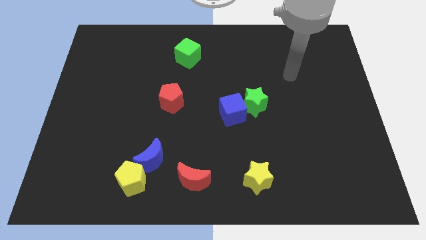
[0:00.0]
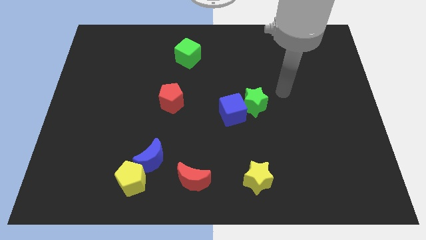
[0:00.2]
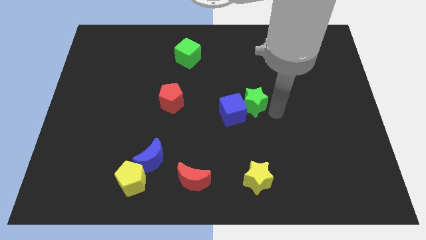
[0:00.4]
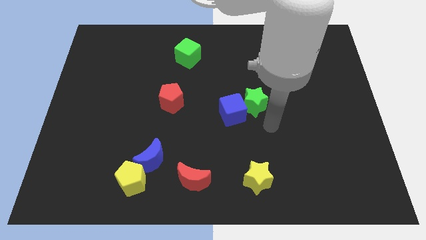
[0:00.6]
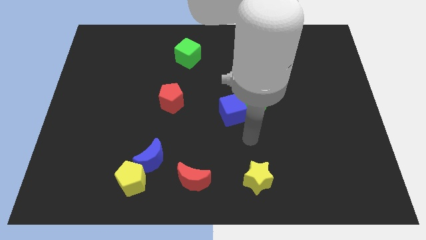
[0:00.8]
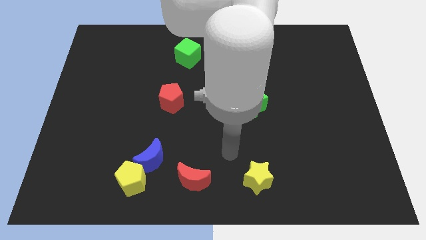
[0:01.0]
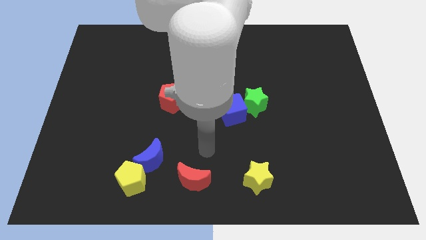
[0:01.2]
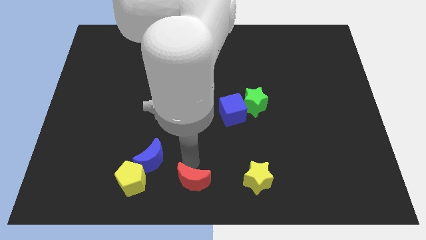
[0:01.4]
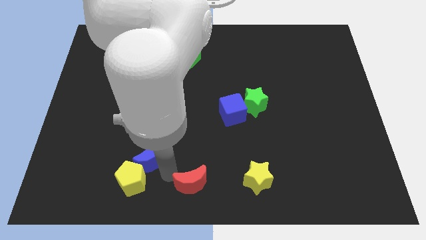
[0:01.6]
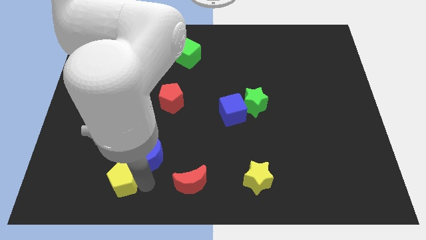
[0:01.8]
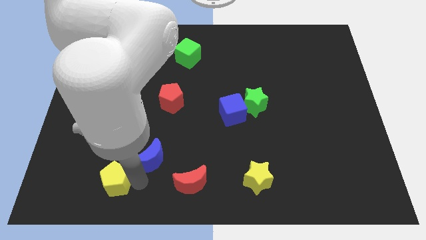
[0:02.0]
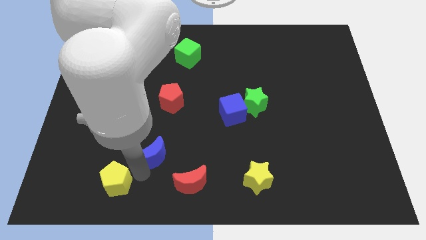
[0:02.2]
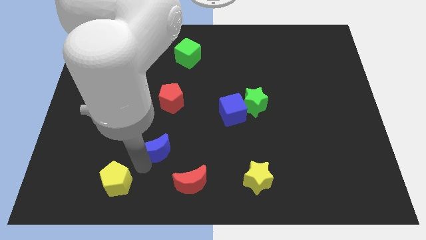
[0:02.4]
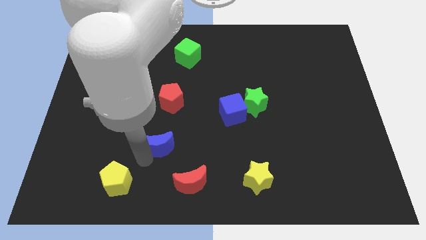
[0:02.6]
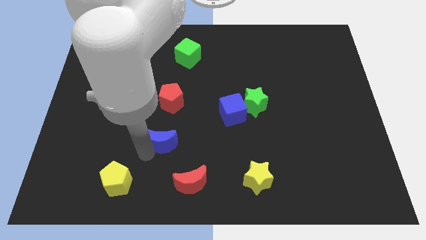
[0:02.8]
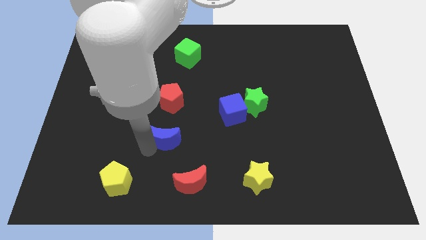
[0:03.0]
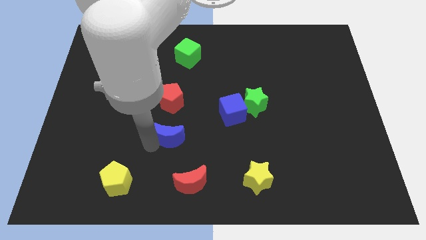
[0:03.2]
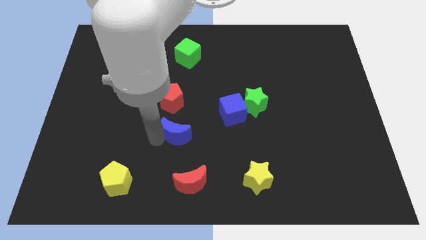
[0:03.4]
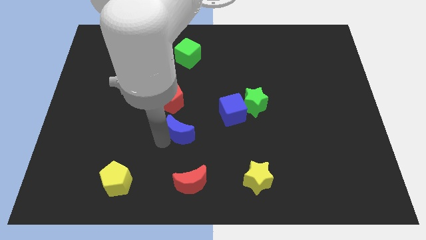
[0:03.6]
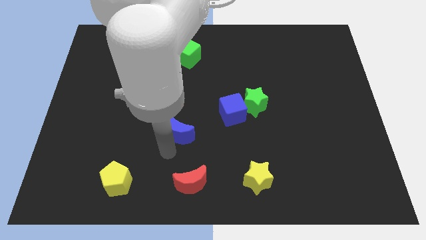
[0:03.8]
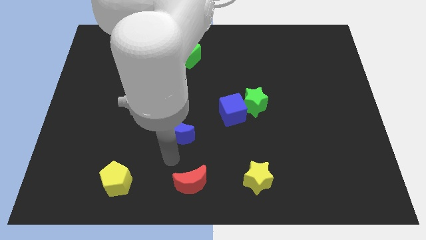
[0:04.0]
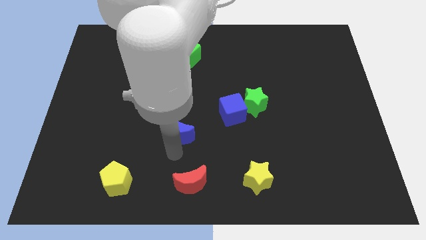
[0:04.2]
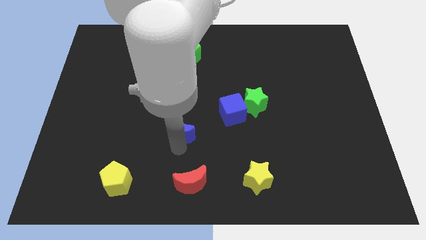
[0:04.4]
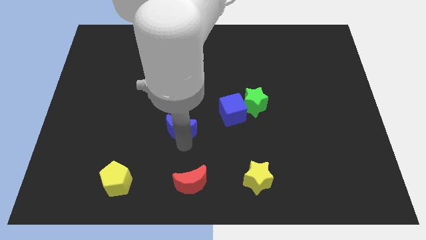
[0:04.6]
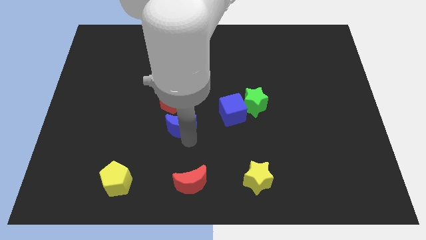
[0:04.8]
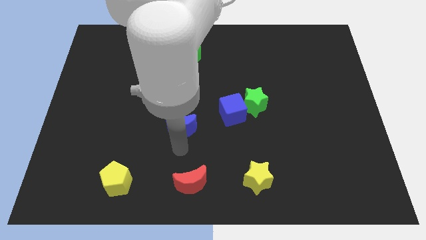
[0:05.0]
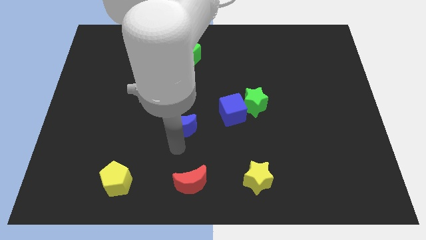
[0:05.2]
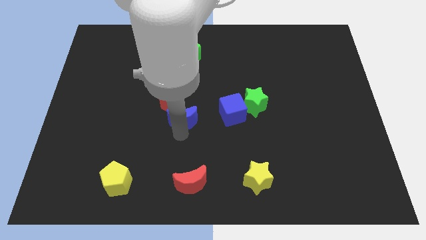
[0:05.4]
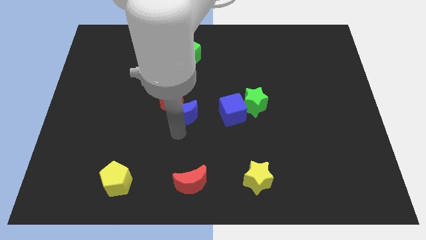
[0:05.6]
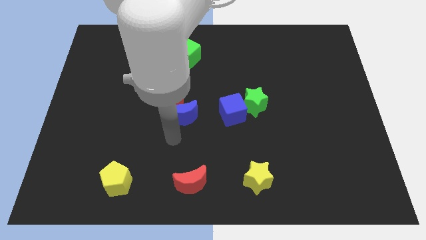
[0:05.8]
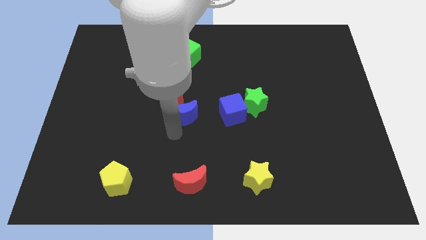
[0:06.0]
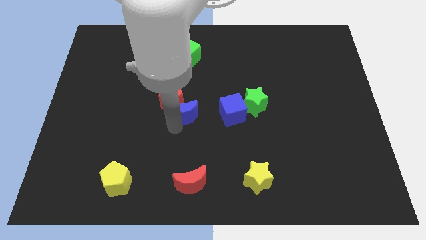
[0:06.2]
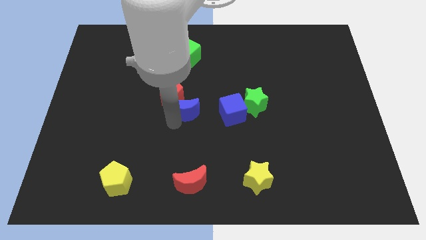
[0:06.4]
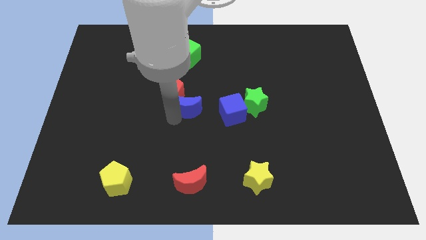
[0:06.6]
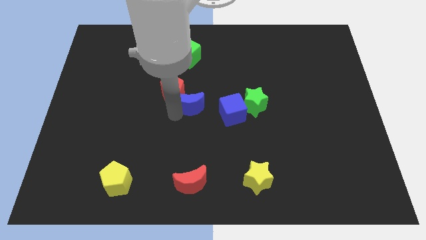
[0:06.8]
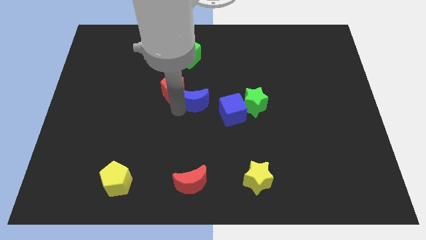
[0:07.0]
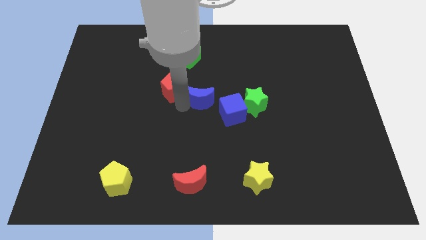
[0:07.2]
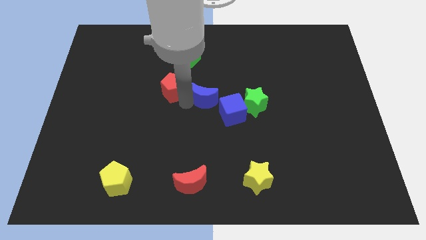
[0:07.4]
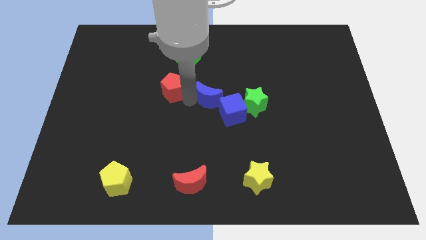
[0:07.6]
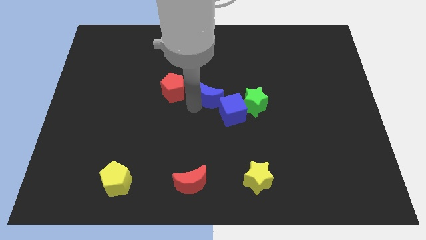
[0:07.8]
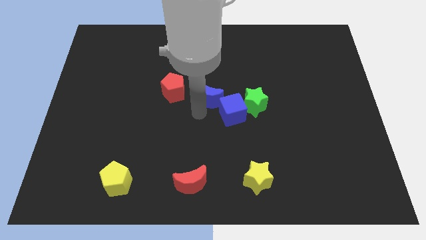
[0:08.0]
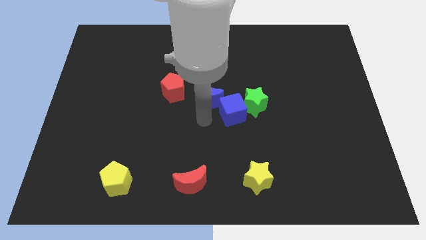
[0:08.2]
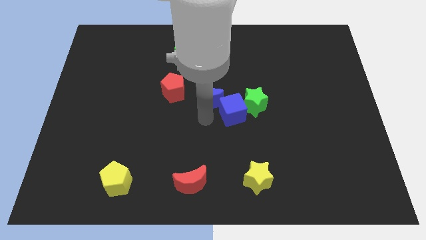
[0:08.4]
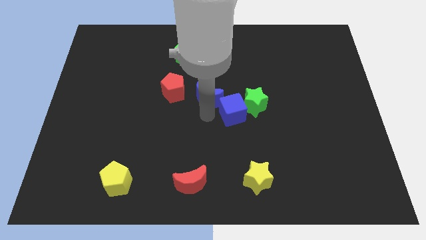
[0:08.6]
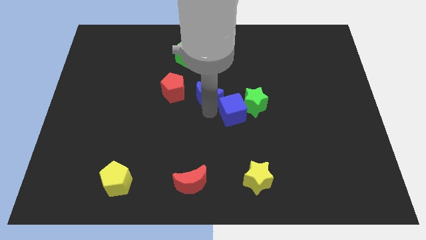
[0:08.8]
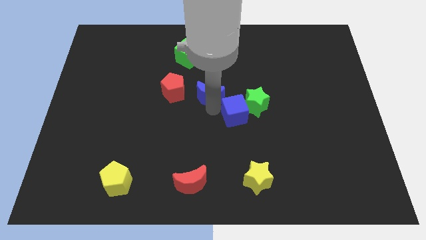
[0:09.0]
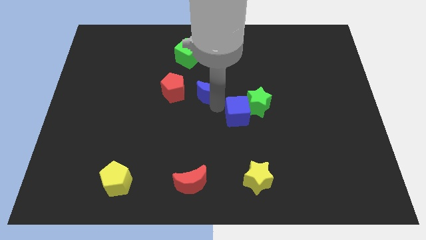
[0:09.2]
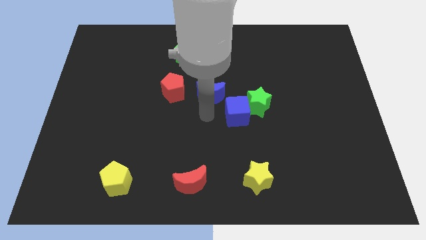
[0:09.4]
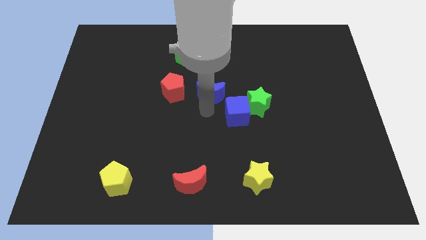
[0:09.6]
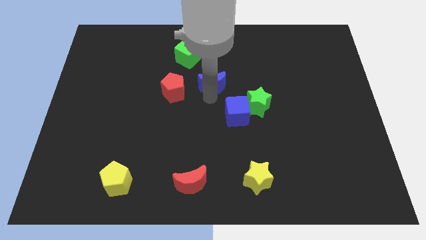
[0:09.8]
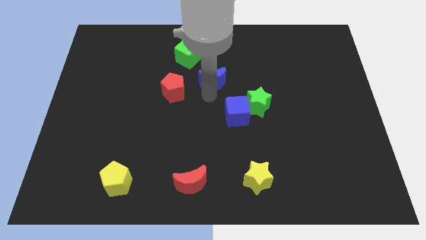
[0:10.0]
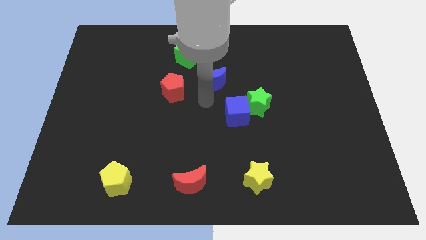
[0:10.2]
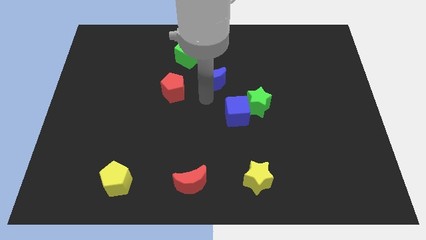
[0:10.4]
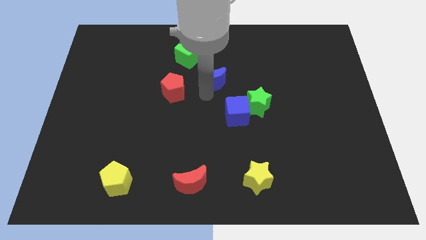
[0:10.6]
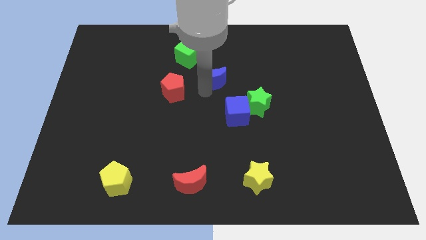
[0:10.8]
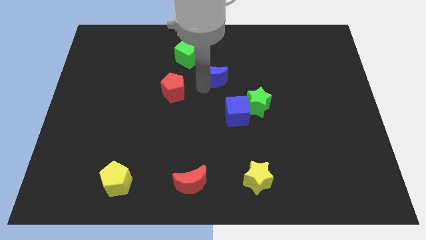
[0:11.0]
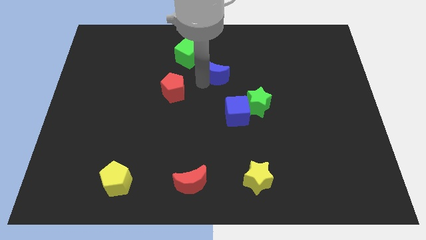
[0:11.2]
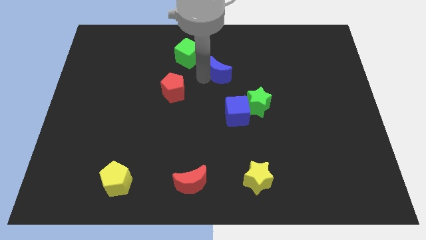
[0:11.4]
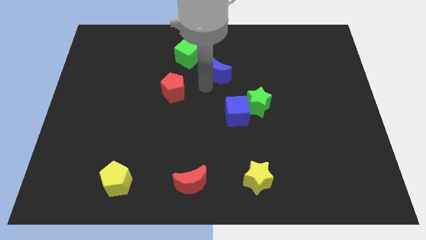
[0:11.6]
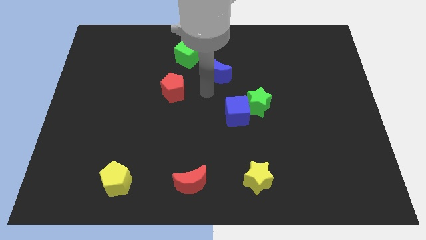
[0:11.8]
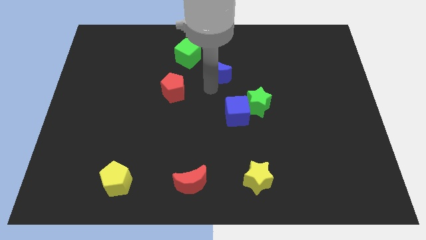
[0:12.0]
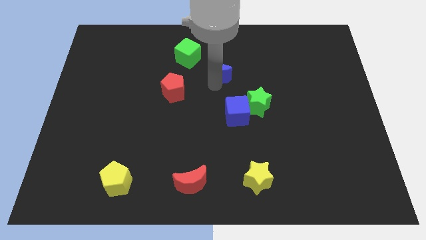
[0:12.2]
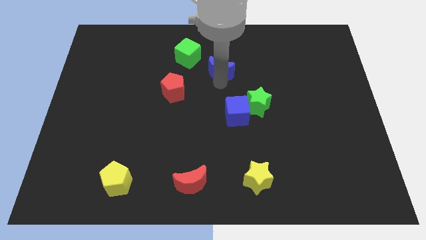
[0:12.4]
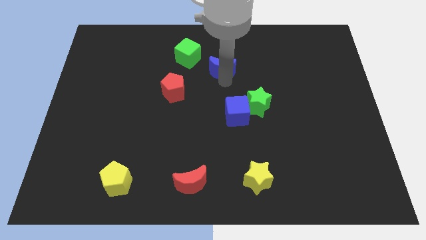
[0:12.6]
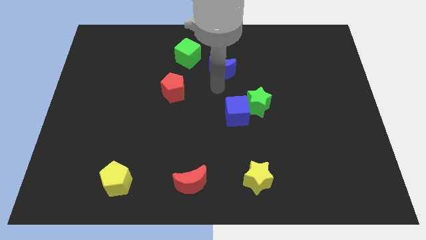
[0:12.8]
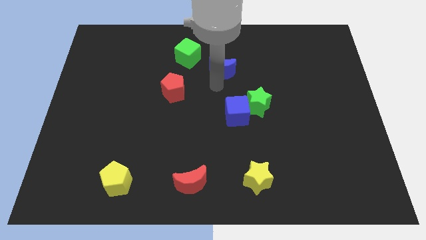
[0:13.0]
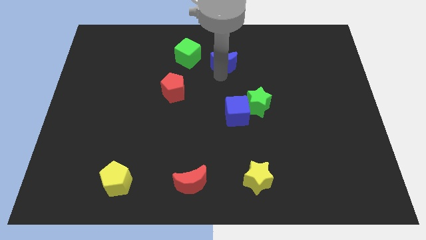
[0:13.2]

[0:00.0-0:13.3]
move the blue moon to the right side of the green cube
